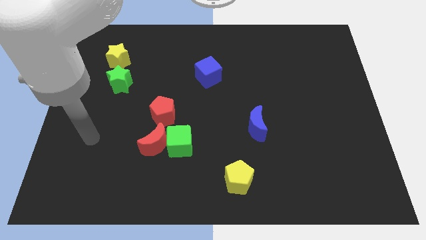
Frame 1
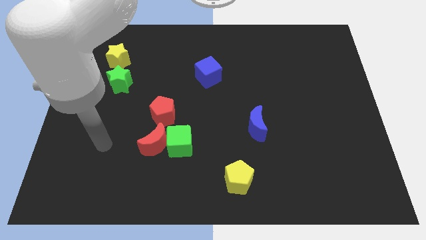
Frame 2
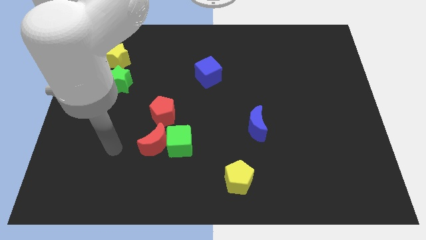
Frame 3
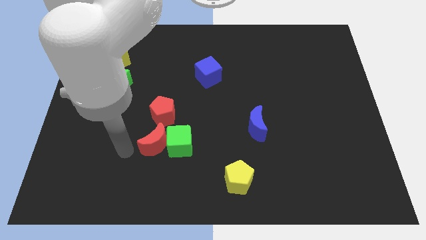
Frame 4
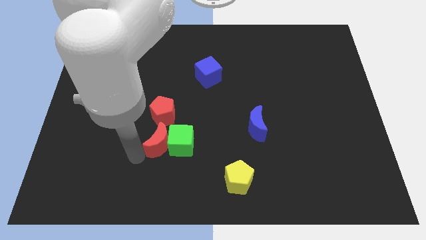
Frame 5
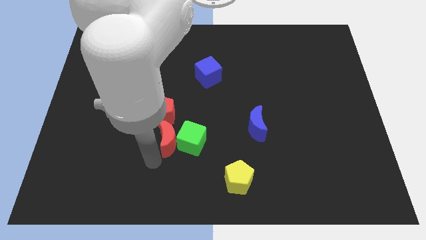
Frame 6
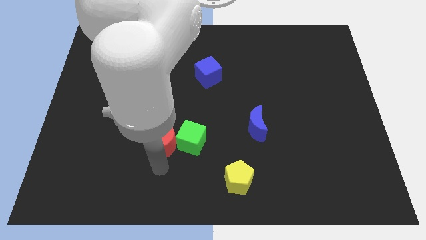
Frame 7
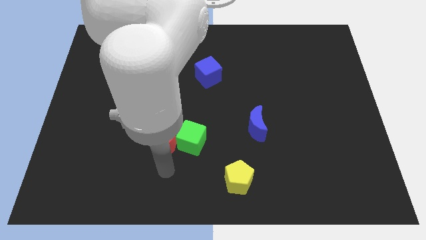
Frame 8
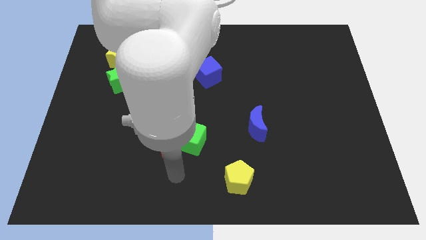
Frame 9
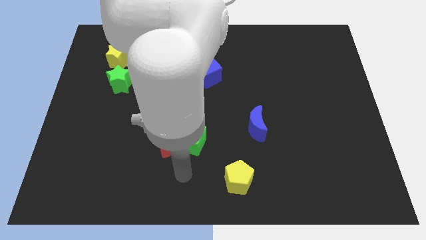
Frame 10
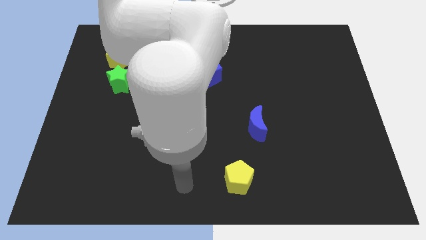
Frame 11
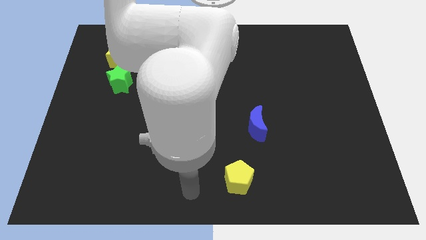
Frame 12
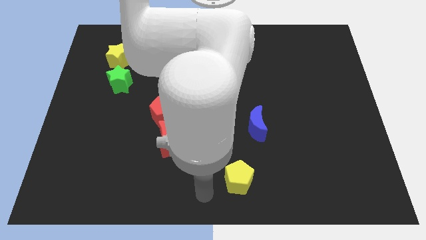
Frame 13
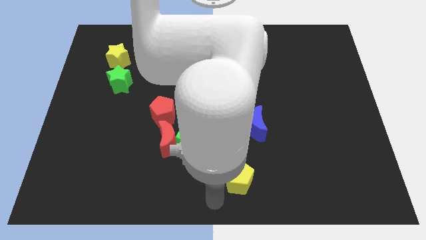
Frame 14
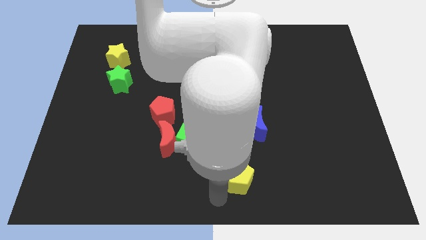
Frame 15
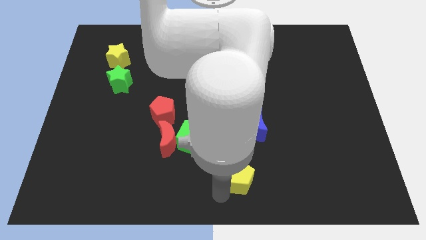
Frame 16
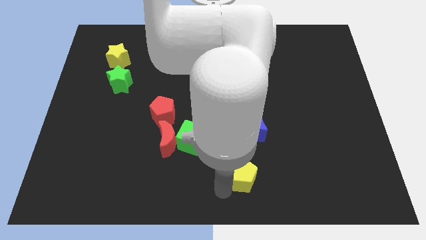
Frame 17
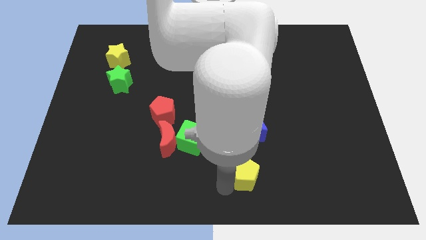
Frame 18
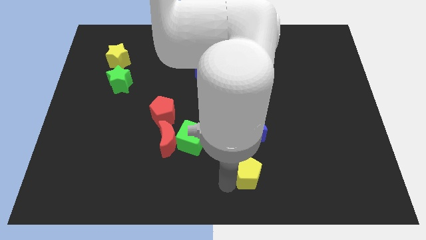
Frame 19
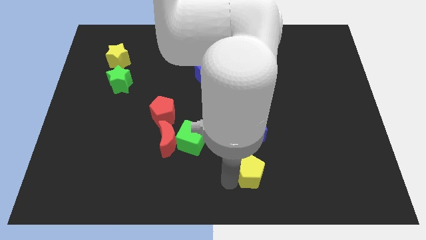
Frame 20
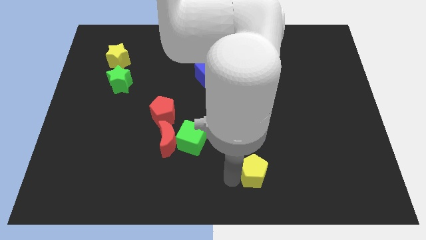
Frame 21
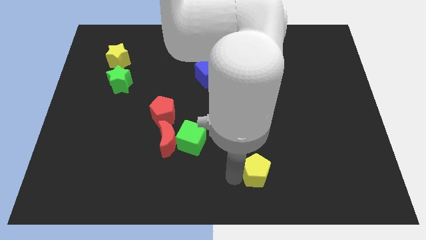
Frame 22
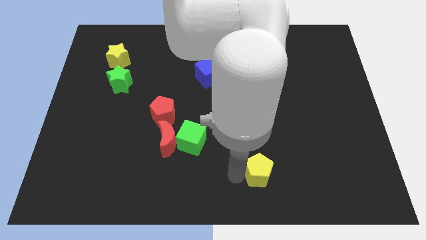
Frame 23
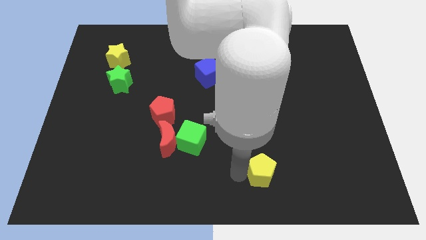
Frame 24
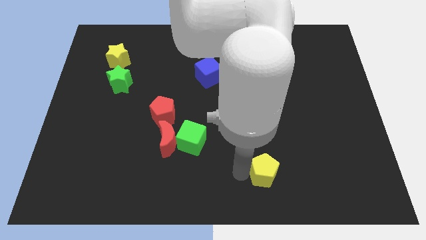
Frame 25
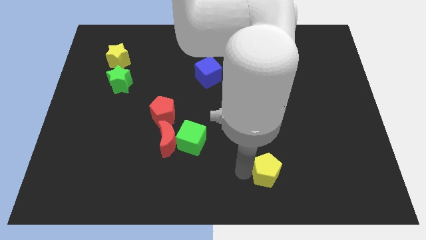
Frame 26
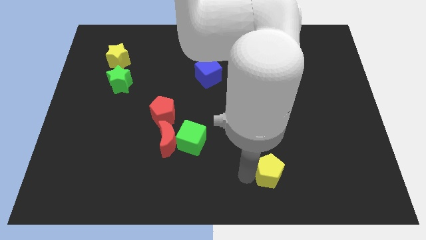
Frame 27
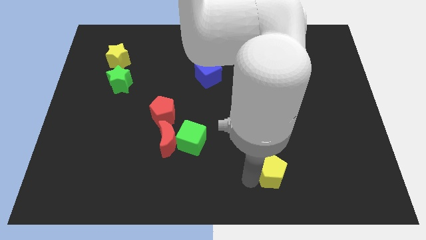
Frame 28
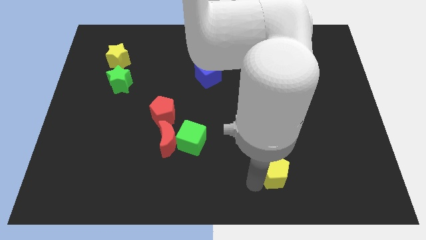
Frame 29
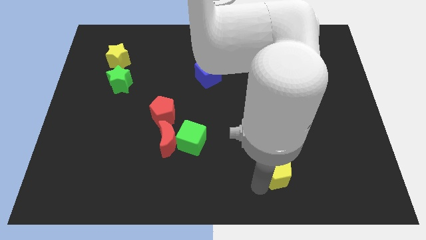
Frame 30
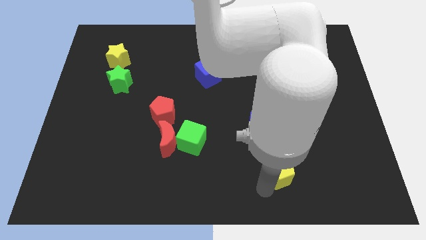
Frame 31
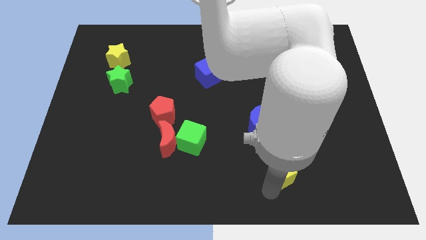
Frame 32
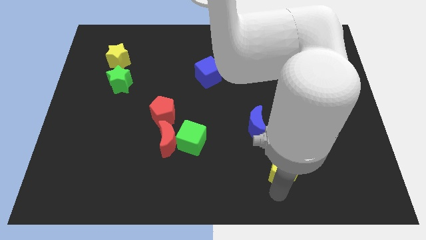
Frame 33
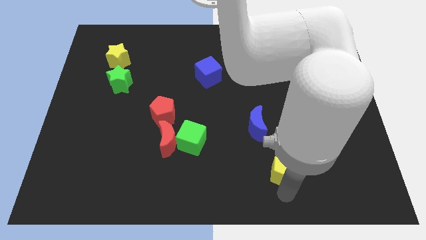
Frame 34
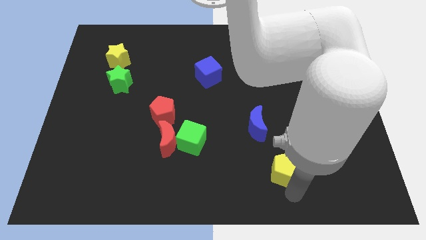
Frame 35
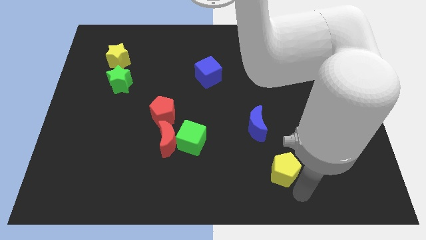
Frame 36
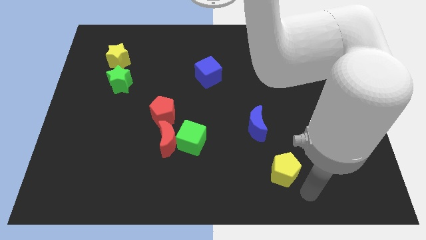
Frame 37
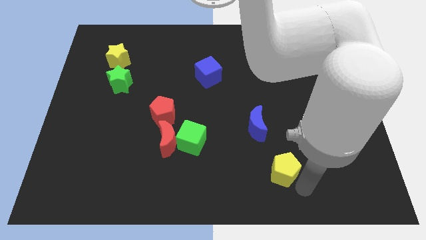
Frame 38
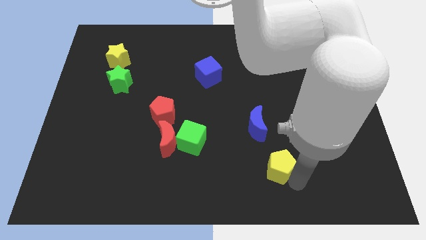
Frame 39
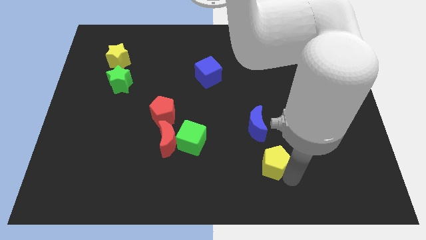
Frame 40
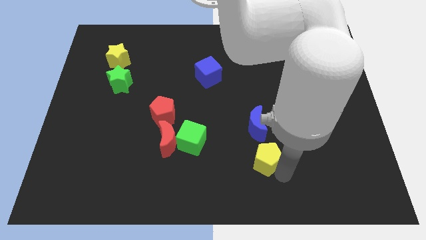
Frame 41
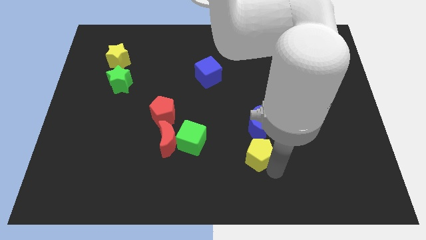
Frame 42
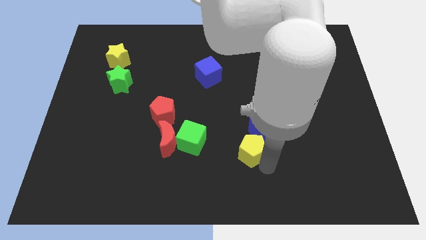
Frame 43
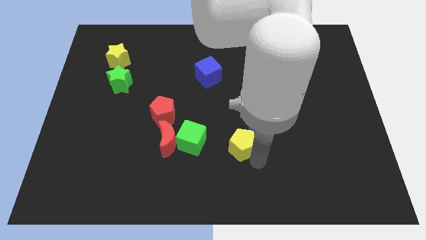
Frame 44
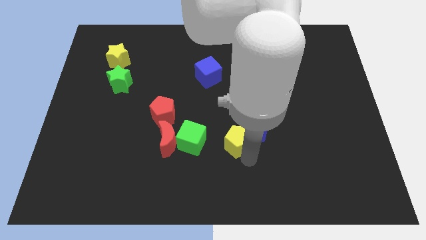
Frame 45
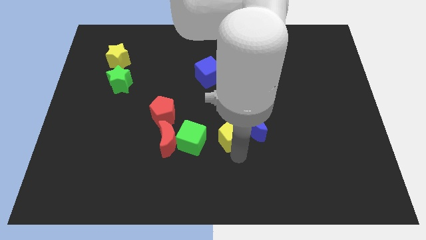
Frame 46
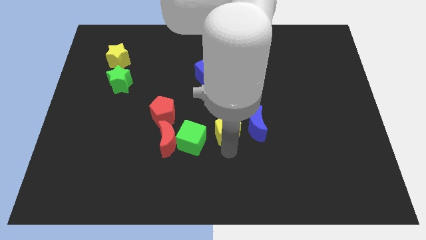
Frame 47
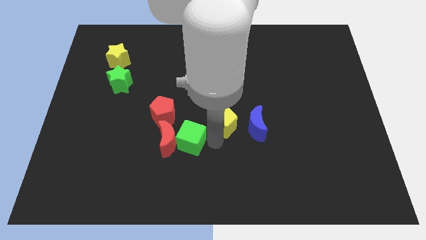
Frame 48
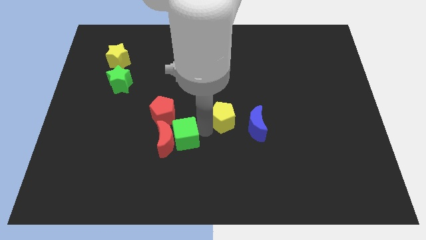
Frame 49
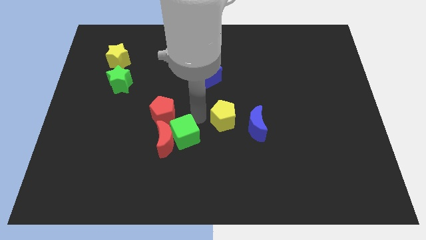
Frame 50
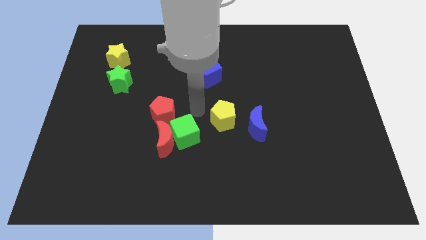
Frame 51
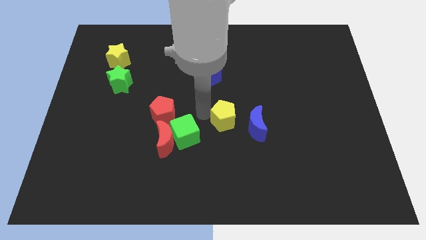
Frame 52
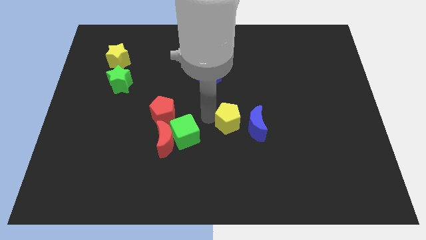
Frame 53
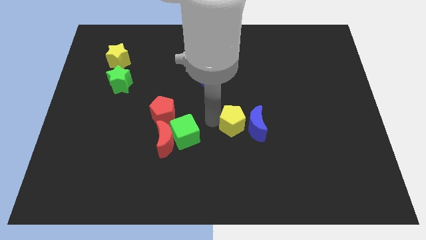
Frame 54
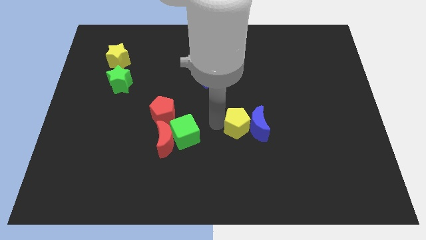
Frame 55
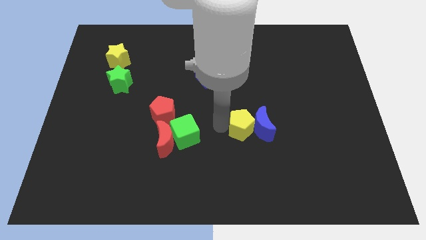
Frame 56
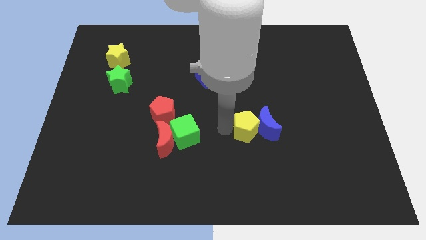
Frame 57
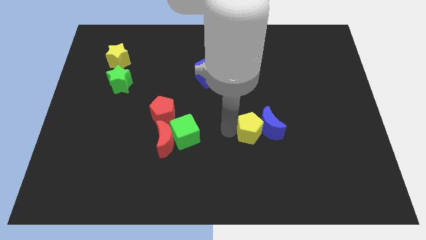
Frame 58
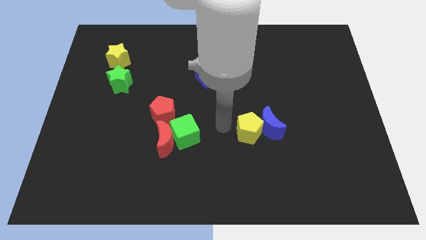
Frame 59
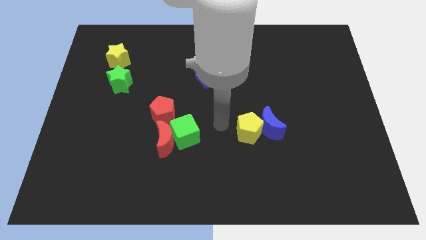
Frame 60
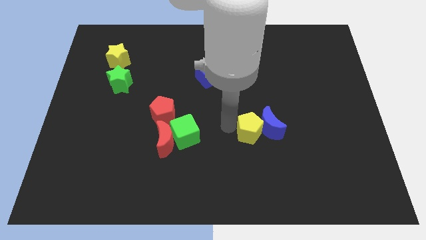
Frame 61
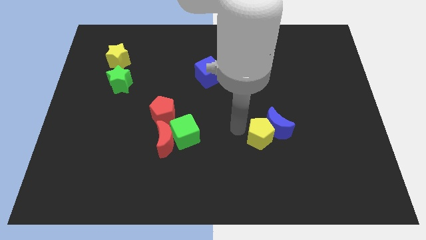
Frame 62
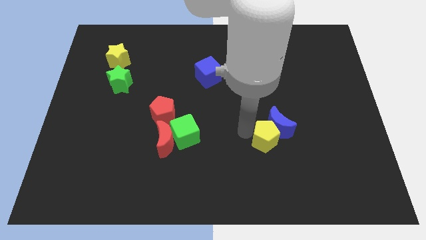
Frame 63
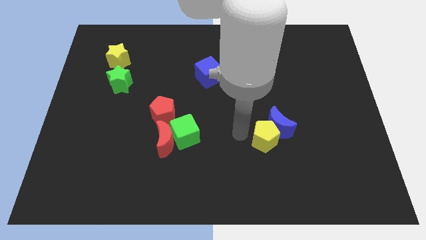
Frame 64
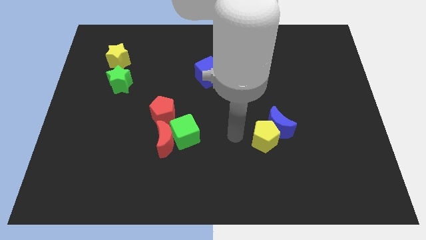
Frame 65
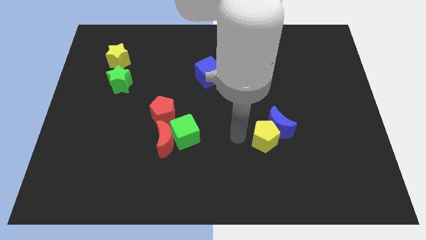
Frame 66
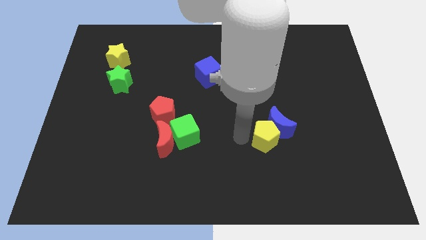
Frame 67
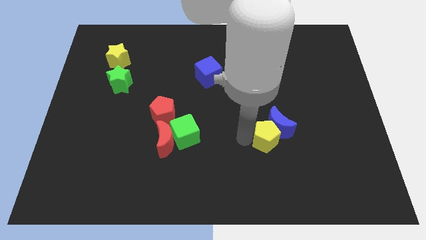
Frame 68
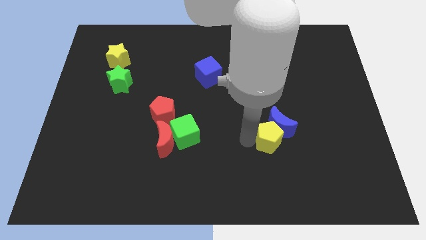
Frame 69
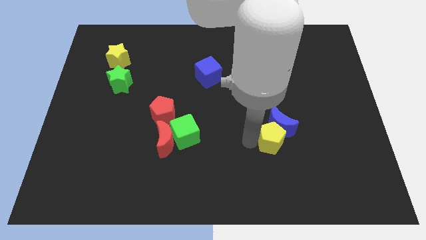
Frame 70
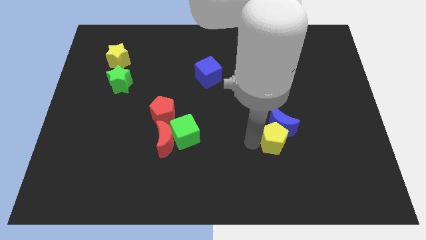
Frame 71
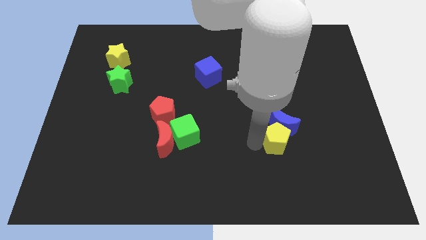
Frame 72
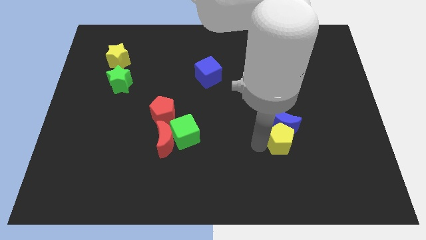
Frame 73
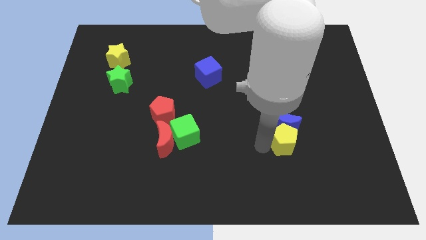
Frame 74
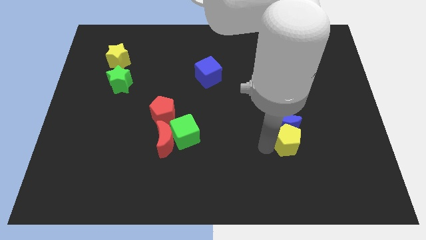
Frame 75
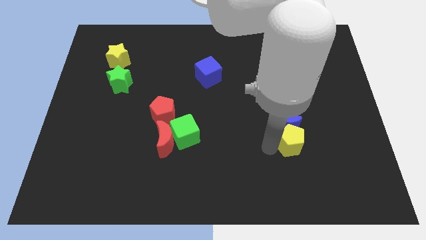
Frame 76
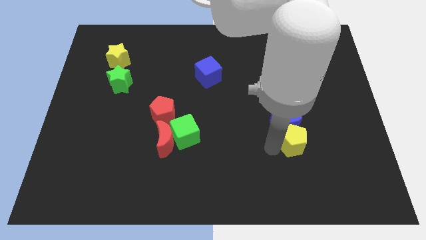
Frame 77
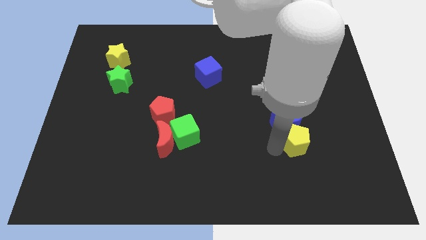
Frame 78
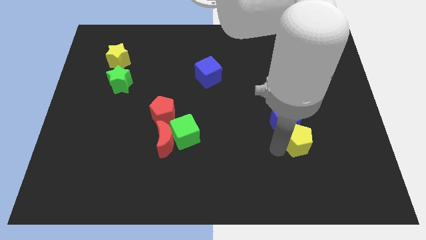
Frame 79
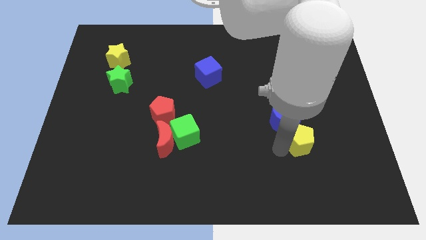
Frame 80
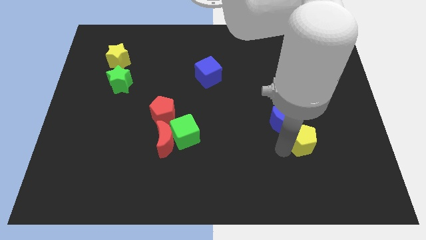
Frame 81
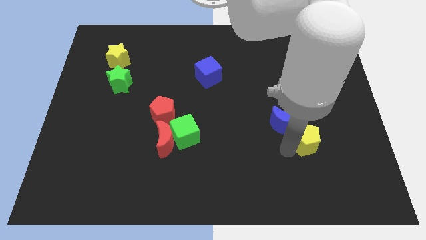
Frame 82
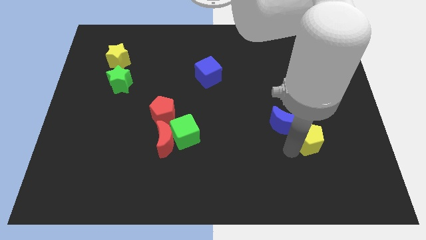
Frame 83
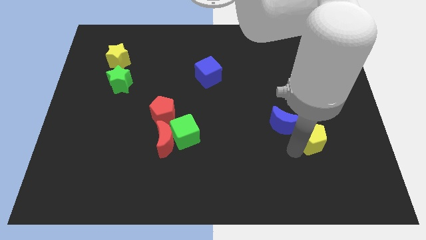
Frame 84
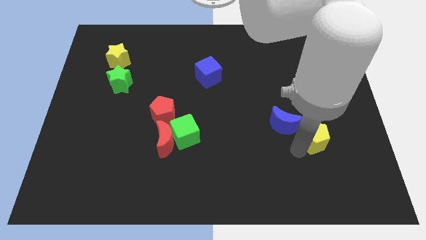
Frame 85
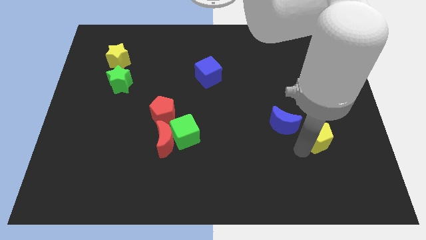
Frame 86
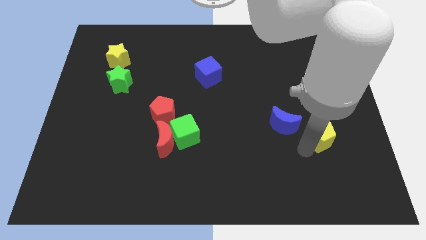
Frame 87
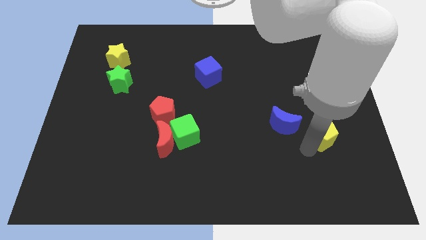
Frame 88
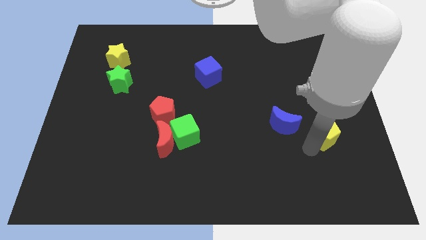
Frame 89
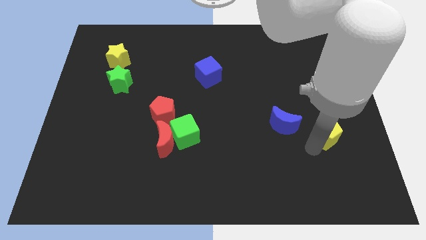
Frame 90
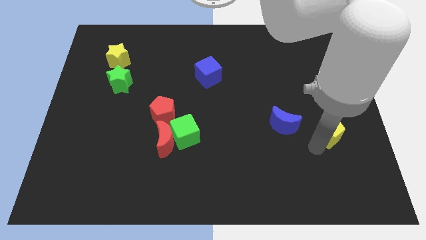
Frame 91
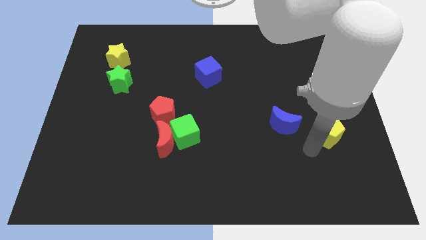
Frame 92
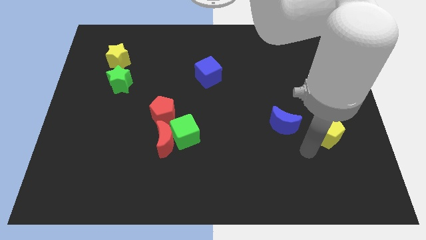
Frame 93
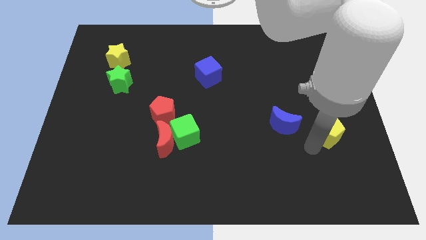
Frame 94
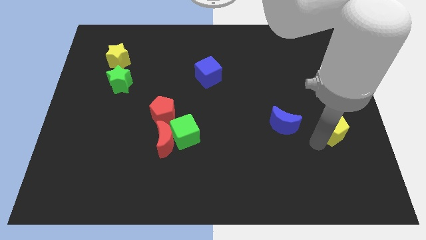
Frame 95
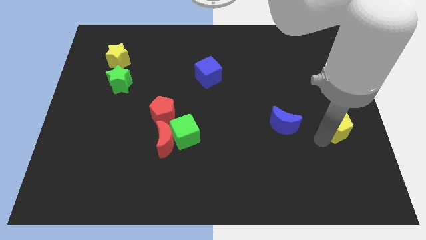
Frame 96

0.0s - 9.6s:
move the yellow pentagon to the center right
